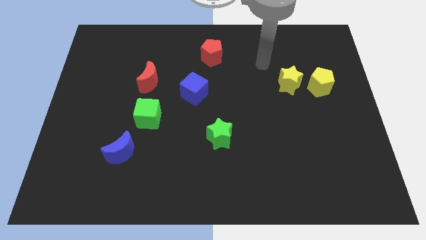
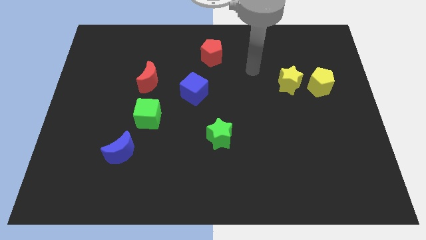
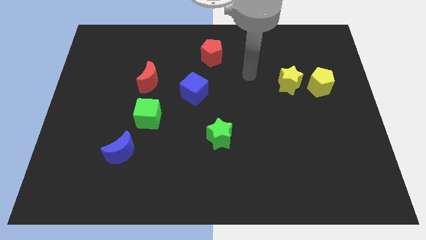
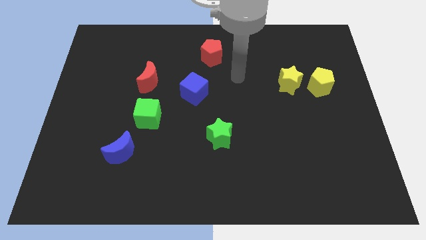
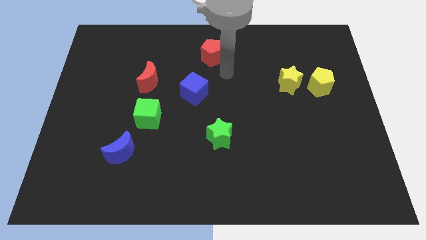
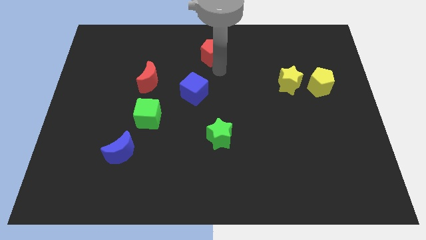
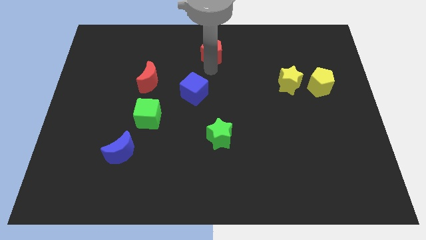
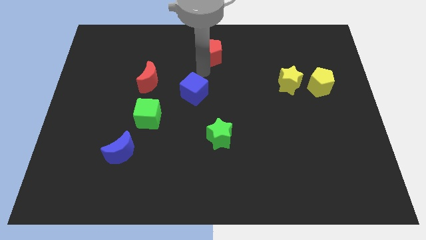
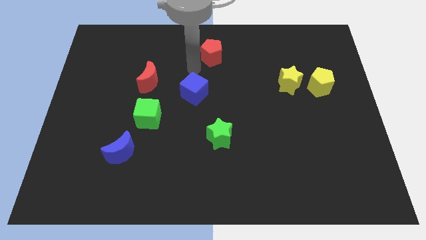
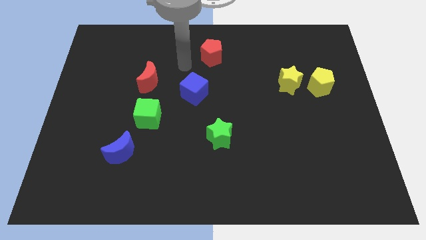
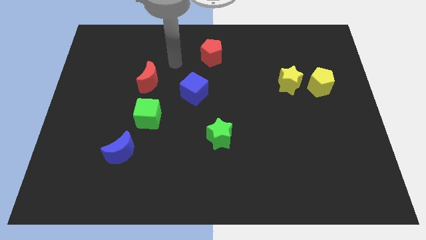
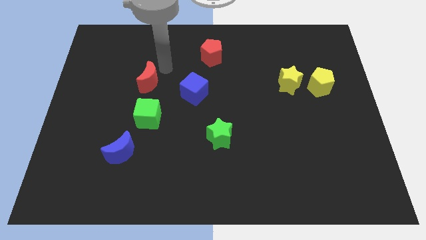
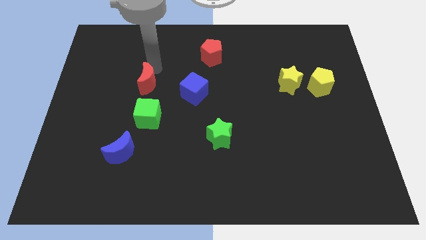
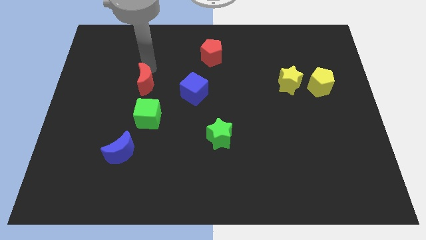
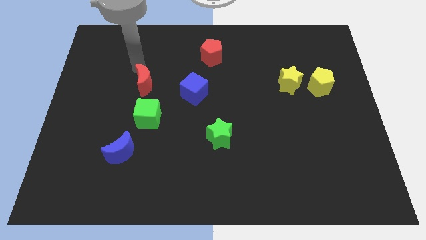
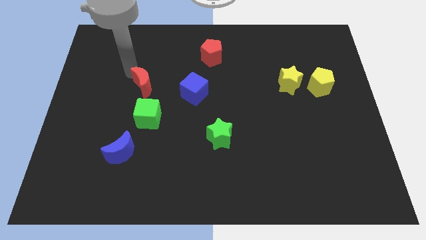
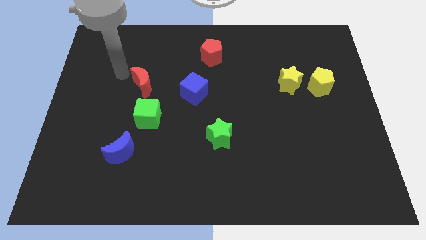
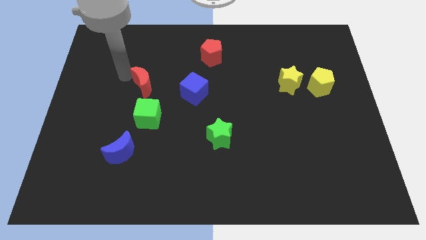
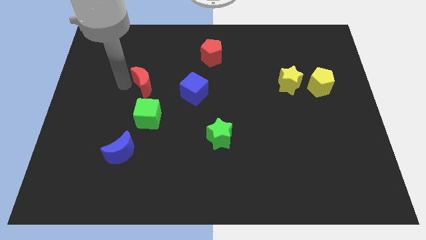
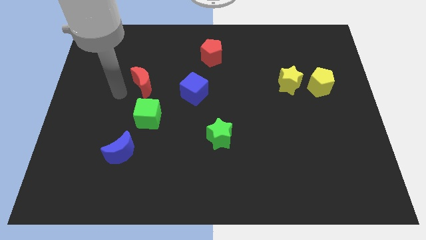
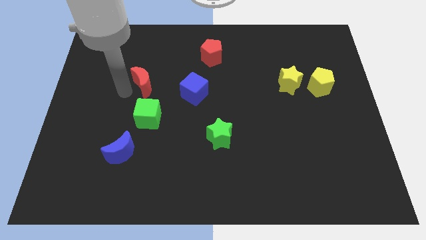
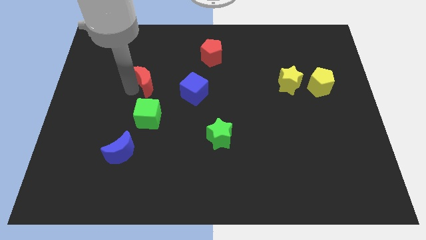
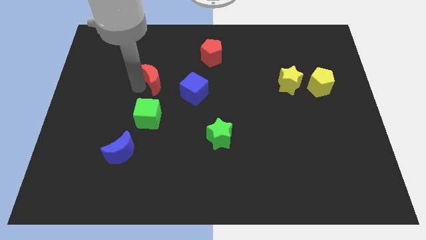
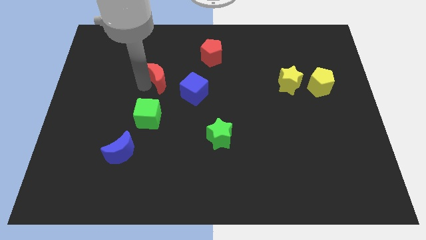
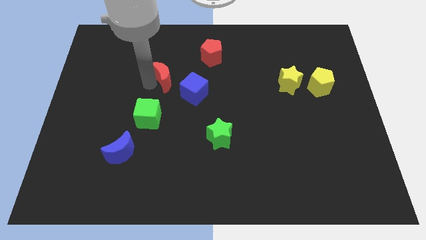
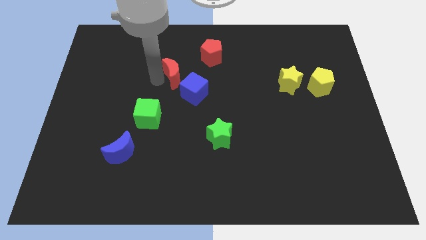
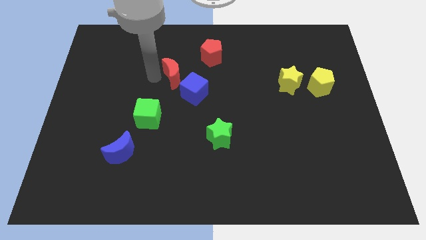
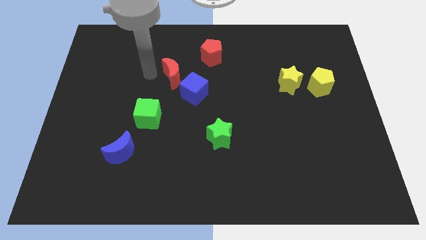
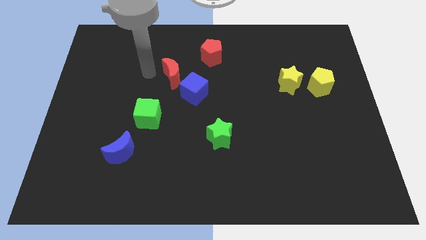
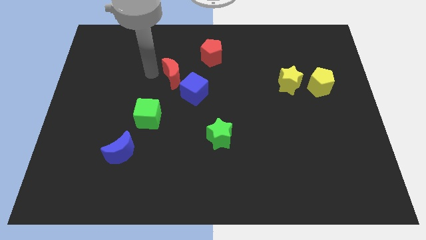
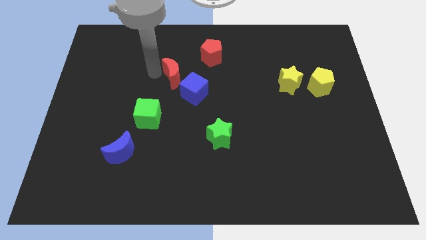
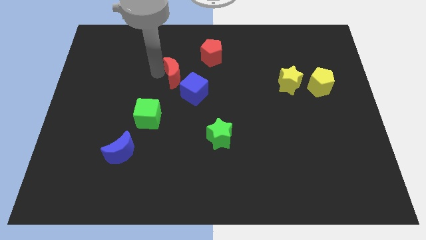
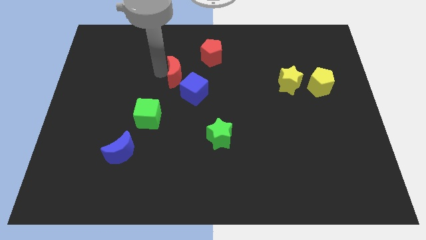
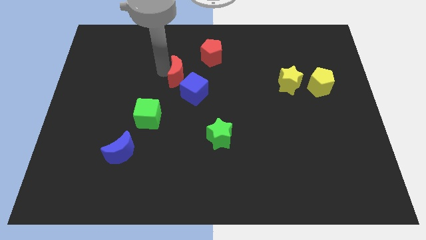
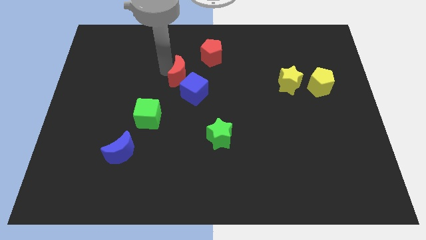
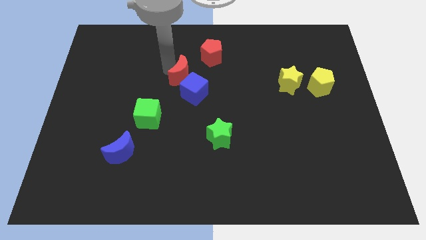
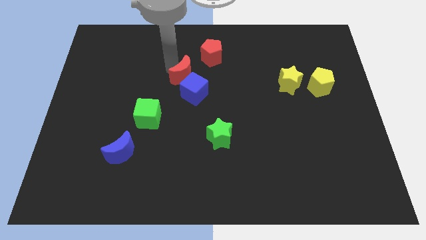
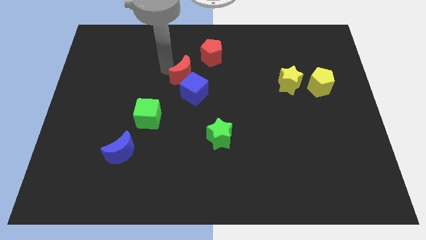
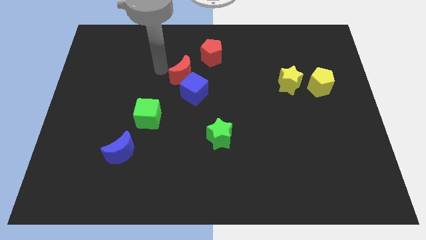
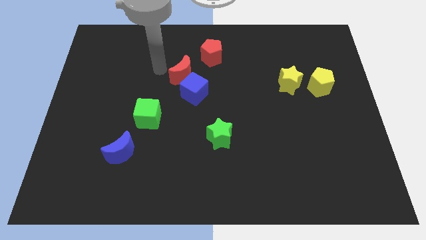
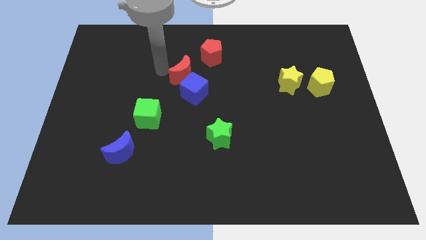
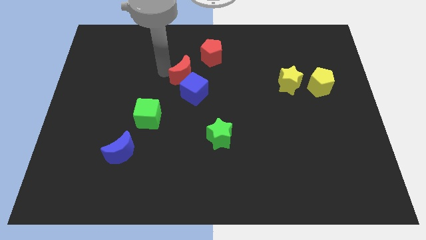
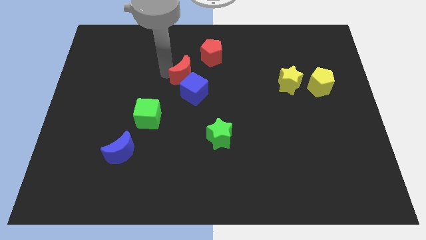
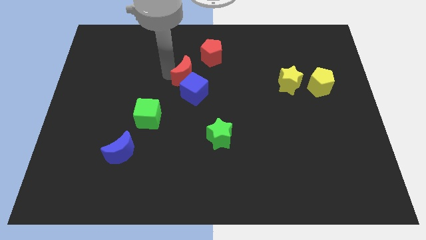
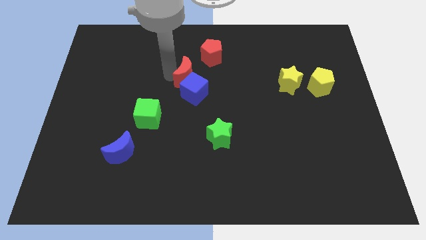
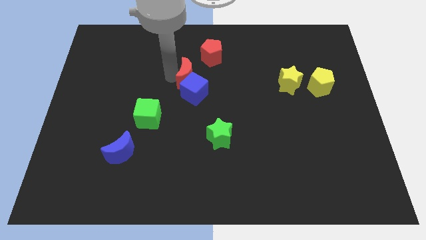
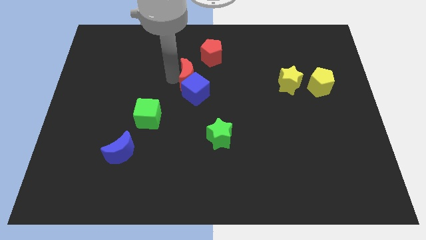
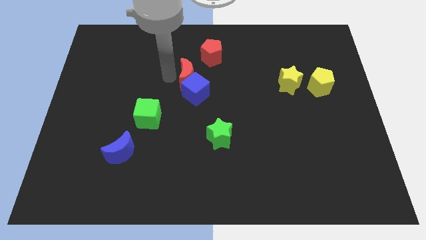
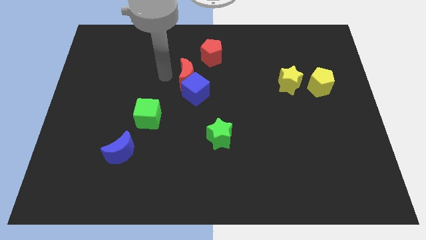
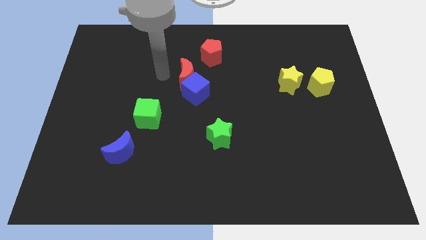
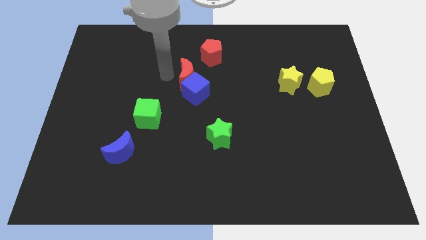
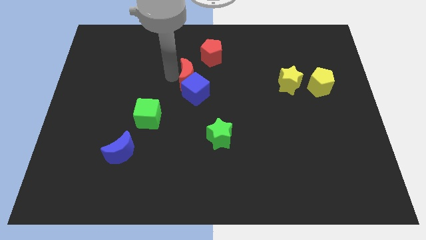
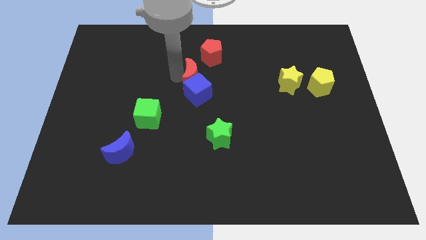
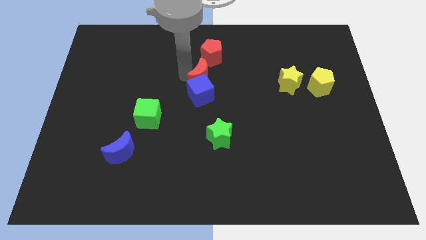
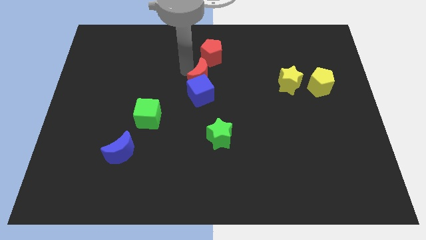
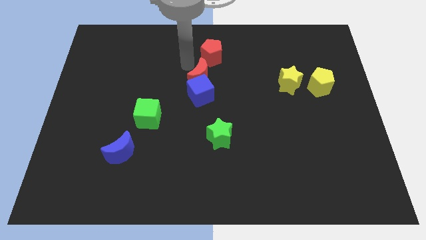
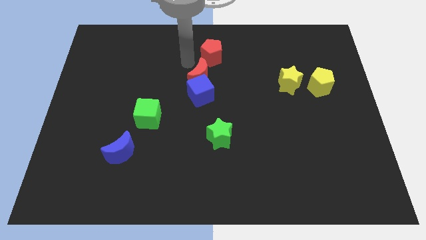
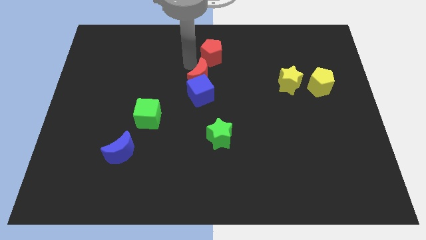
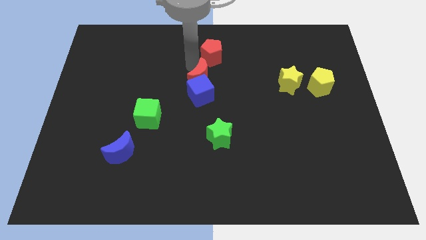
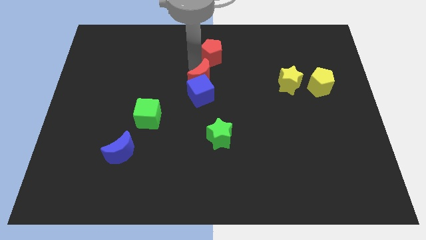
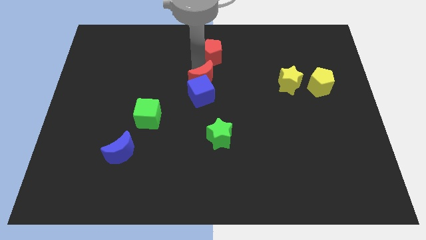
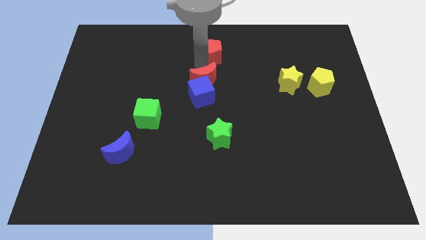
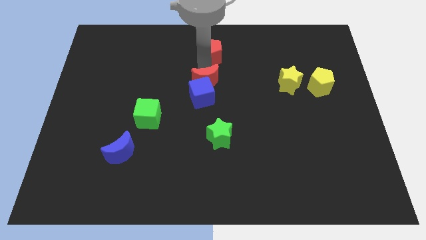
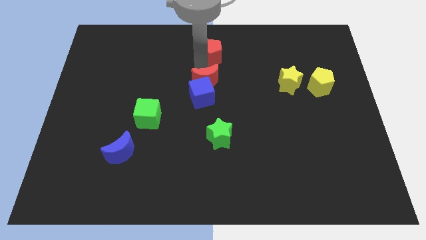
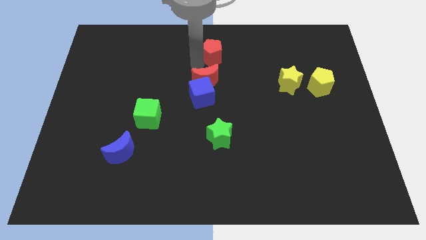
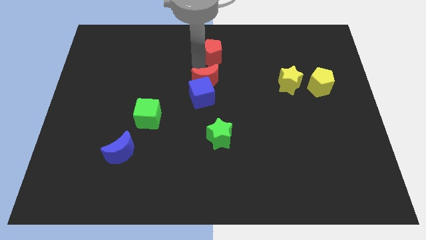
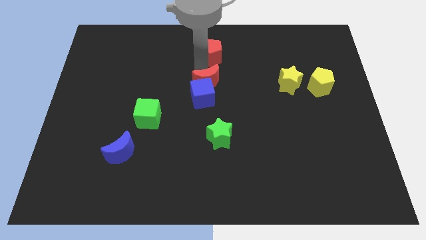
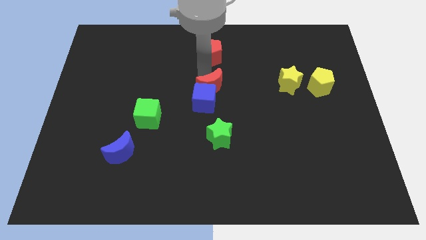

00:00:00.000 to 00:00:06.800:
move the red moon to the top side of the green star

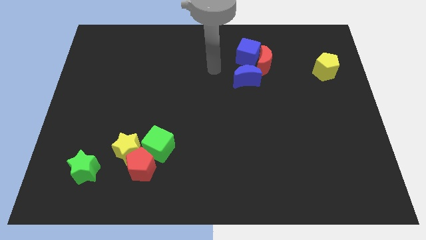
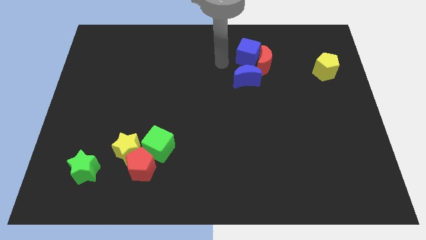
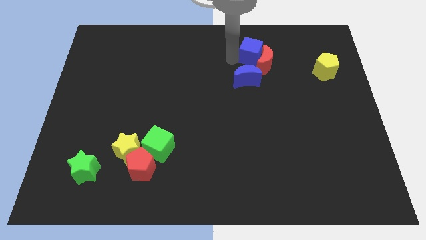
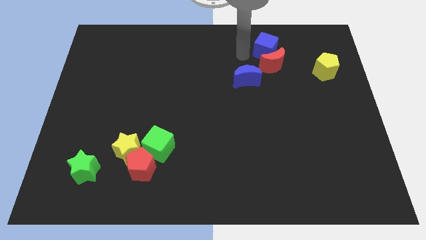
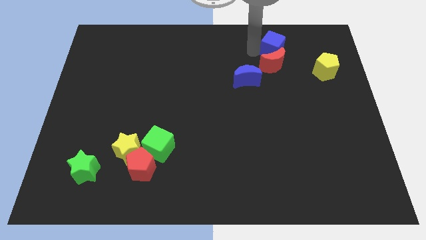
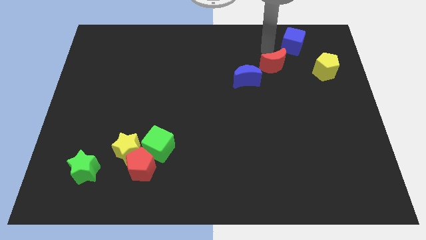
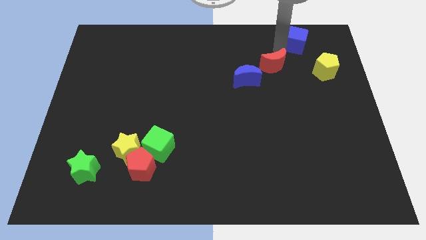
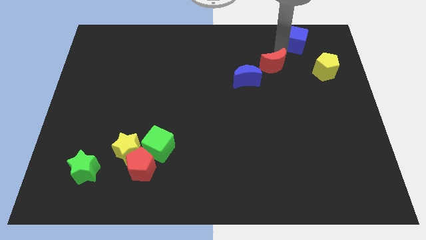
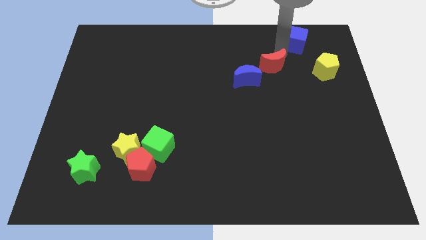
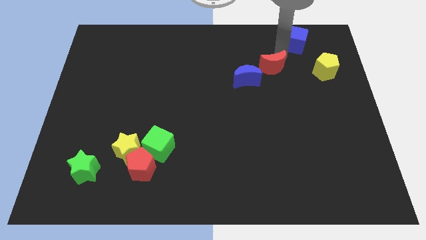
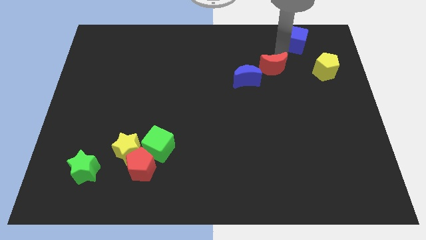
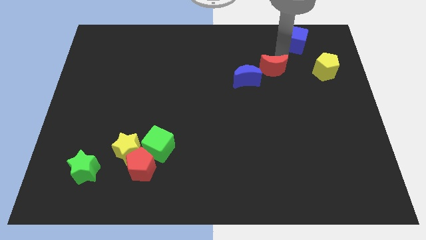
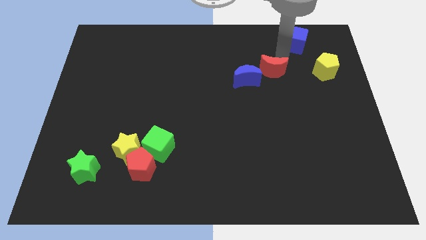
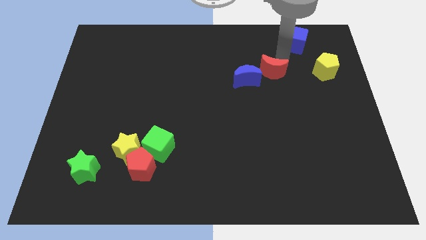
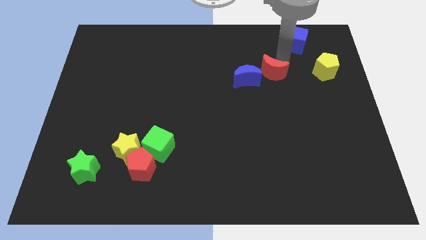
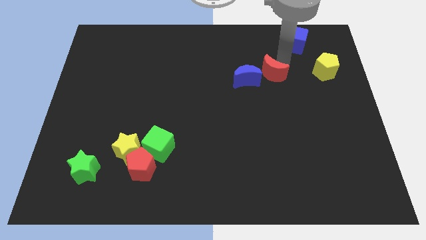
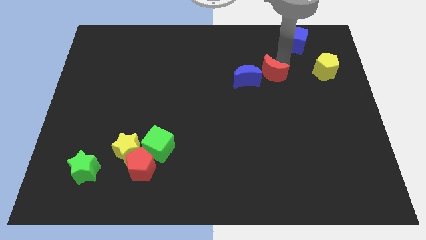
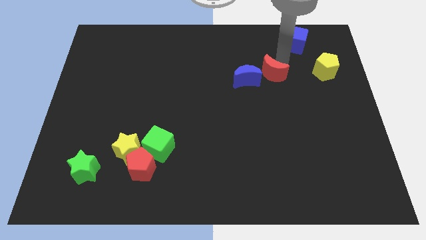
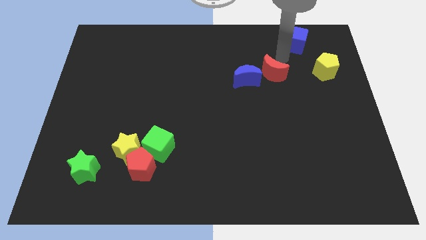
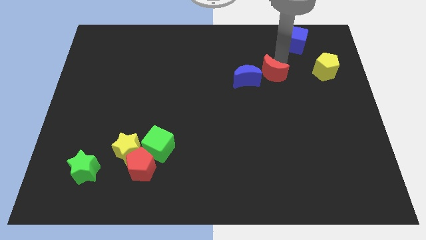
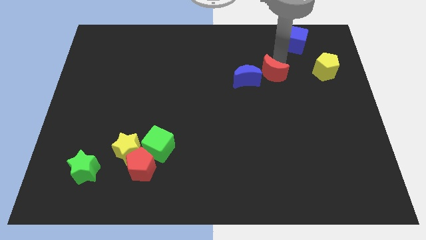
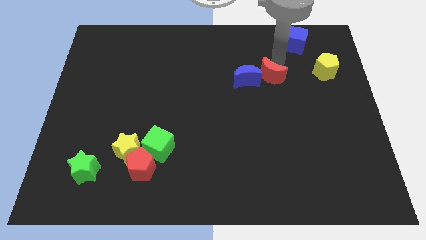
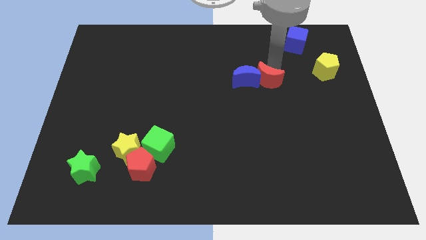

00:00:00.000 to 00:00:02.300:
move the red moon to the bottom right side of the blue moon
